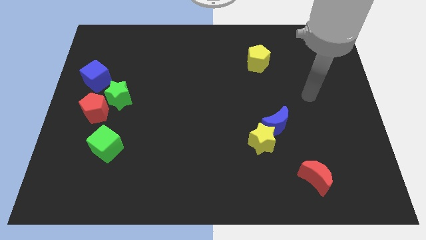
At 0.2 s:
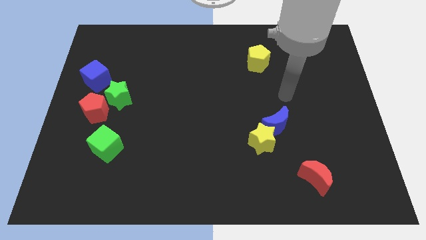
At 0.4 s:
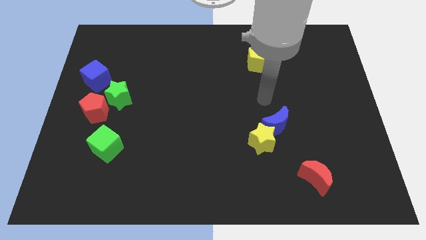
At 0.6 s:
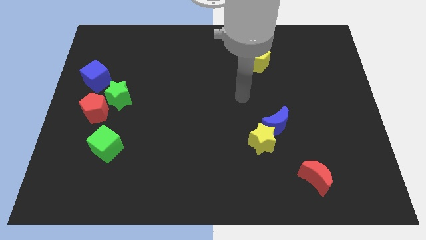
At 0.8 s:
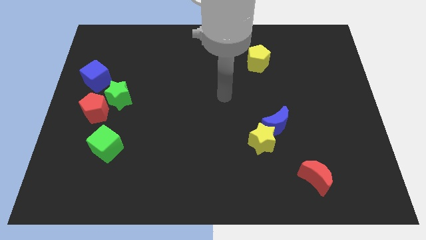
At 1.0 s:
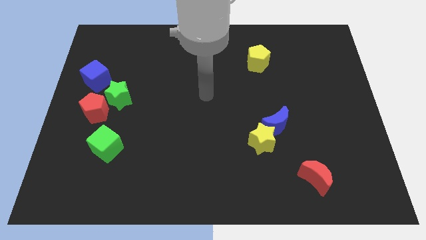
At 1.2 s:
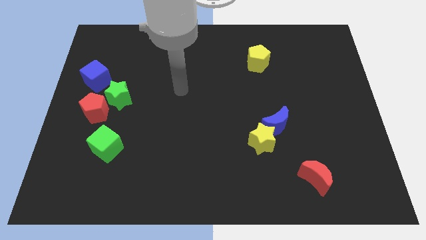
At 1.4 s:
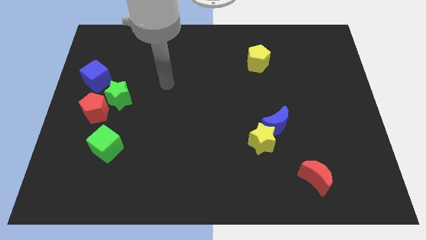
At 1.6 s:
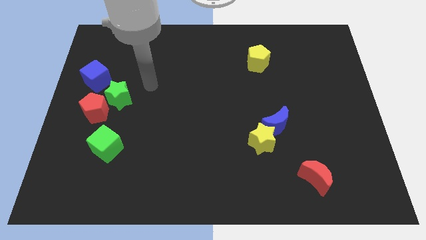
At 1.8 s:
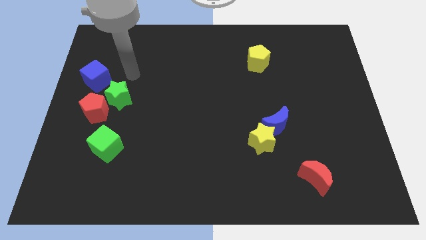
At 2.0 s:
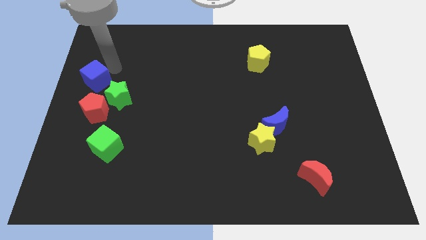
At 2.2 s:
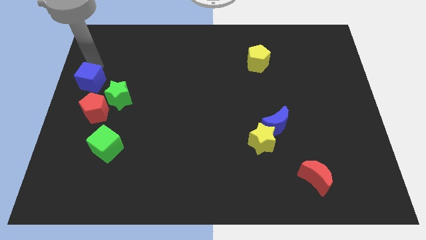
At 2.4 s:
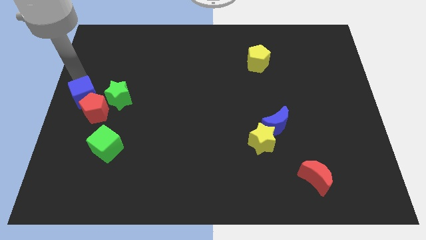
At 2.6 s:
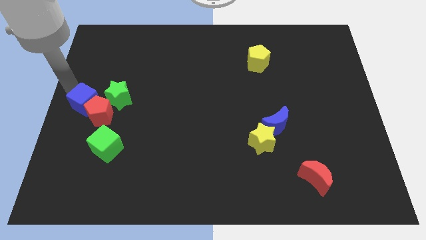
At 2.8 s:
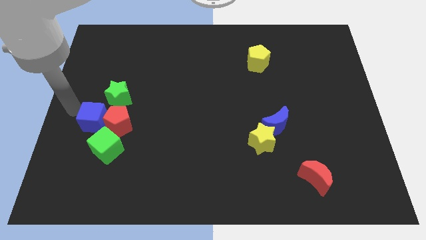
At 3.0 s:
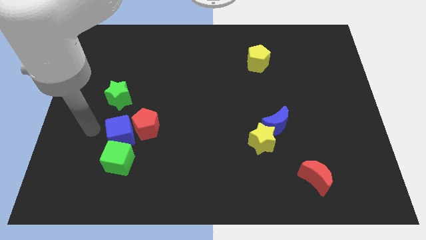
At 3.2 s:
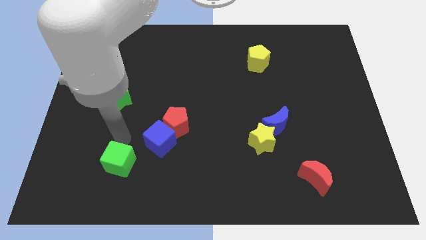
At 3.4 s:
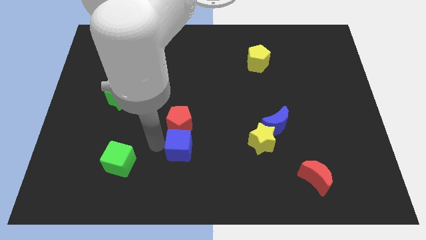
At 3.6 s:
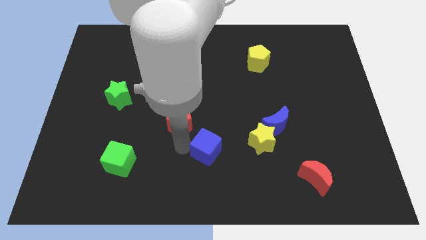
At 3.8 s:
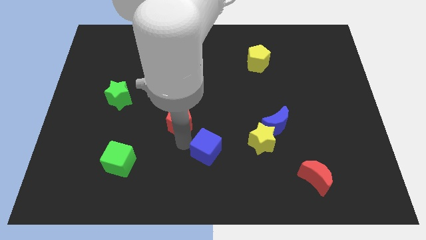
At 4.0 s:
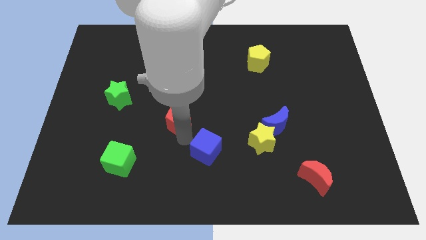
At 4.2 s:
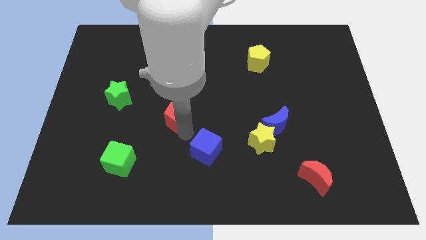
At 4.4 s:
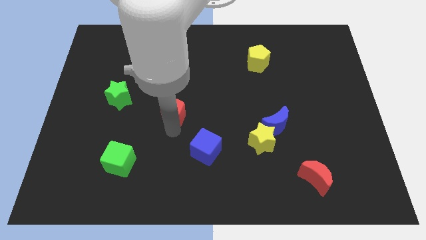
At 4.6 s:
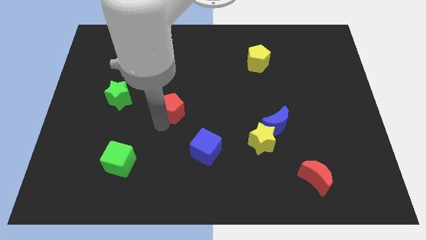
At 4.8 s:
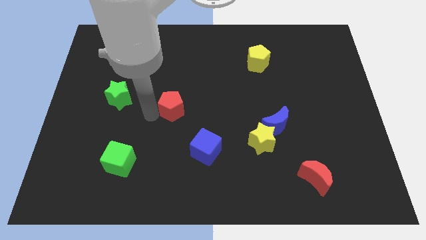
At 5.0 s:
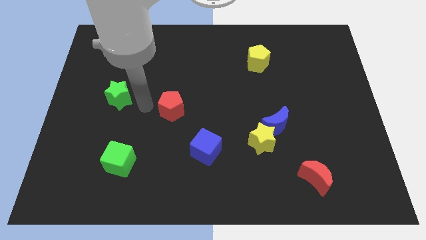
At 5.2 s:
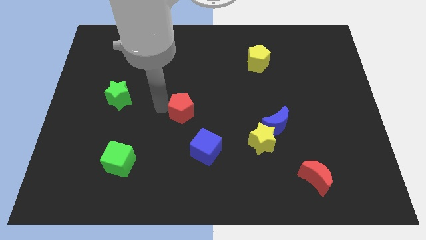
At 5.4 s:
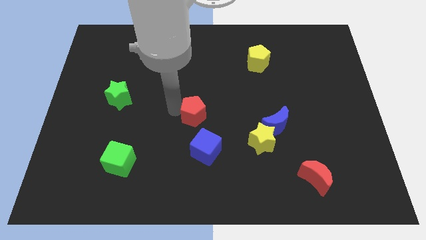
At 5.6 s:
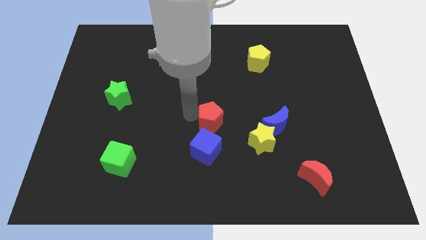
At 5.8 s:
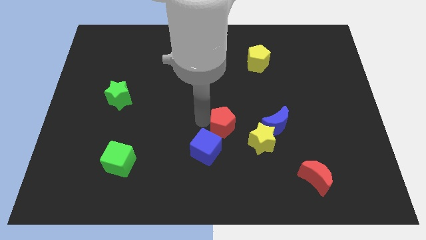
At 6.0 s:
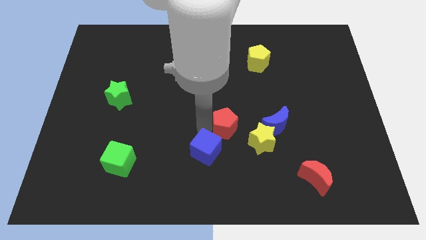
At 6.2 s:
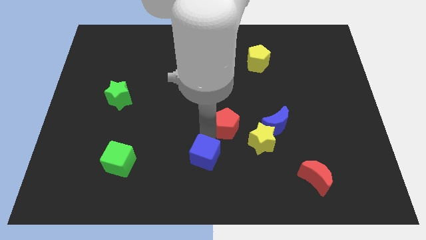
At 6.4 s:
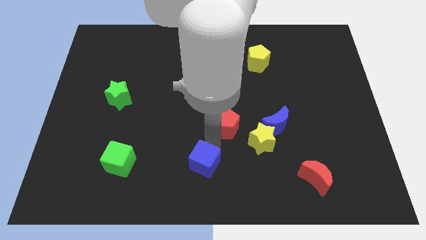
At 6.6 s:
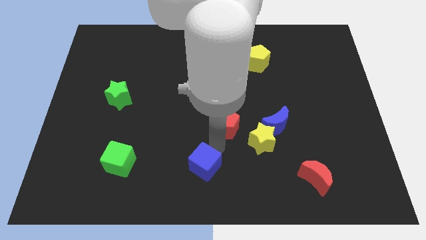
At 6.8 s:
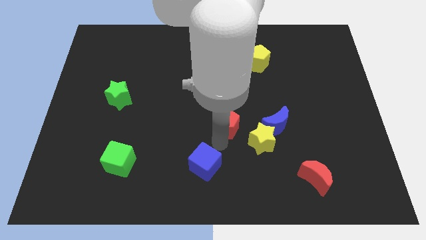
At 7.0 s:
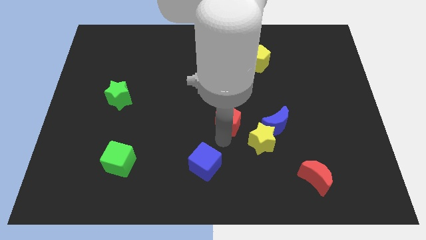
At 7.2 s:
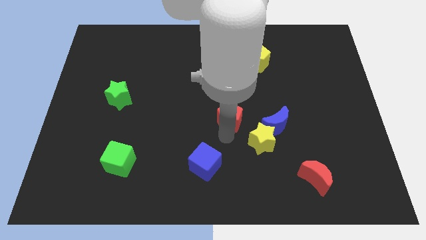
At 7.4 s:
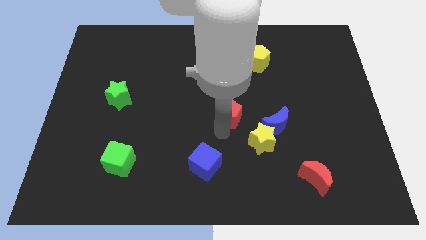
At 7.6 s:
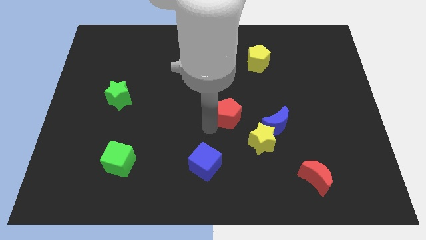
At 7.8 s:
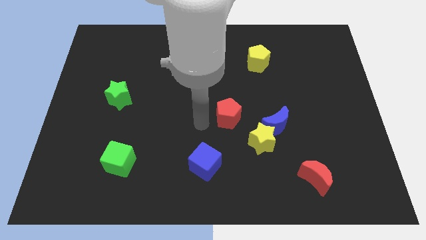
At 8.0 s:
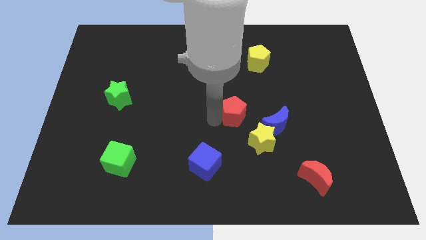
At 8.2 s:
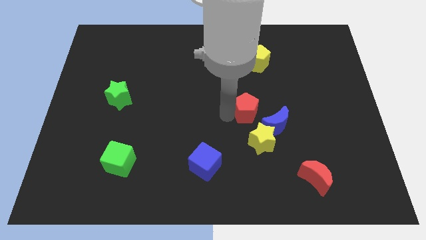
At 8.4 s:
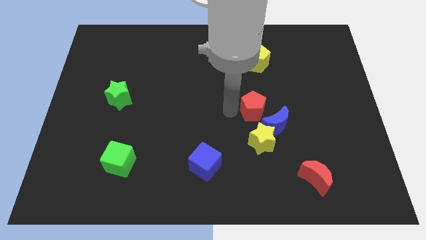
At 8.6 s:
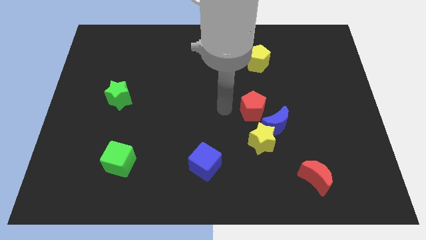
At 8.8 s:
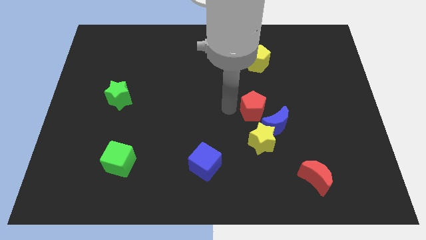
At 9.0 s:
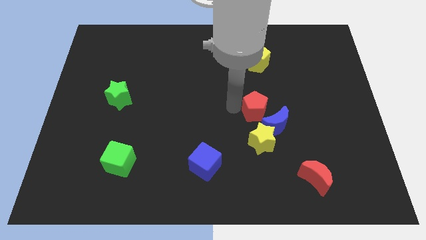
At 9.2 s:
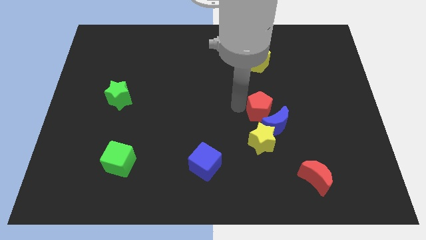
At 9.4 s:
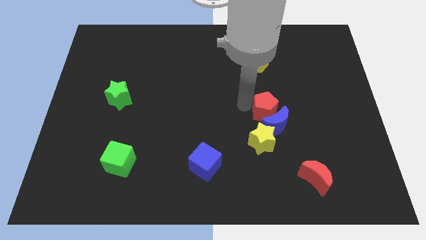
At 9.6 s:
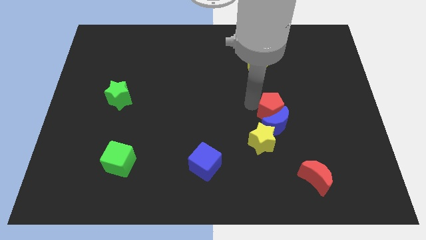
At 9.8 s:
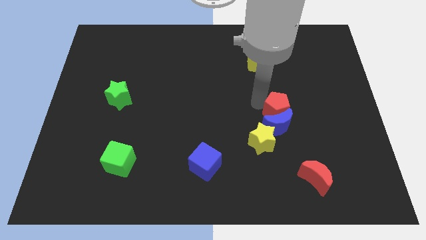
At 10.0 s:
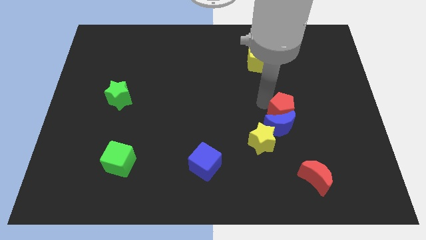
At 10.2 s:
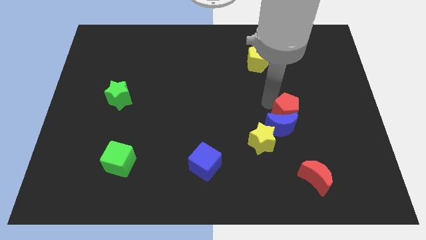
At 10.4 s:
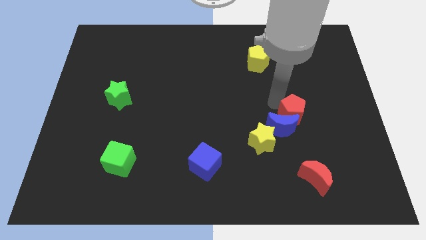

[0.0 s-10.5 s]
slide the red pentagon to the right side of the blue moon

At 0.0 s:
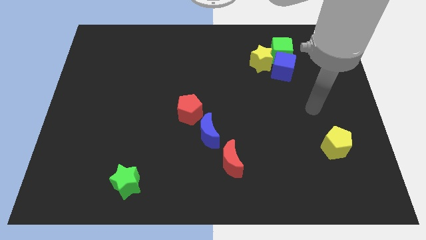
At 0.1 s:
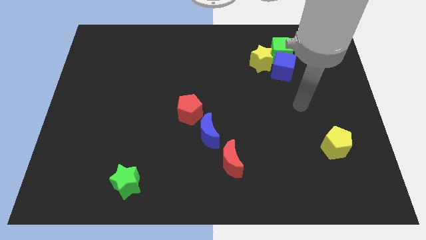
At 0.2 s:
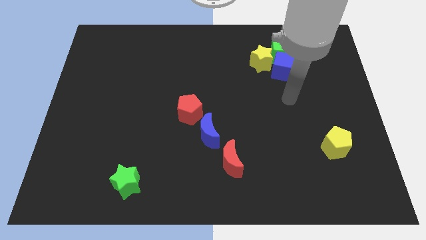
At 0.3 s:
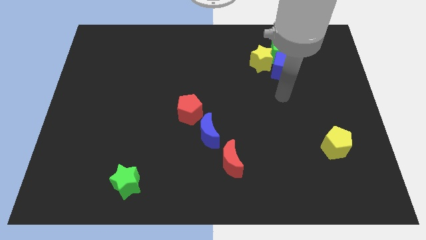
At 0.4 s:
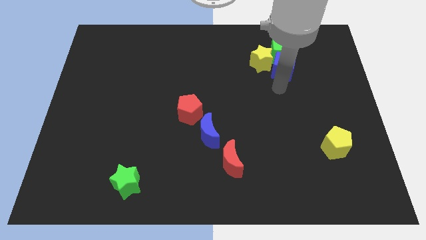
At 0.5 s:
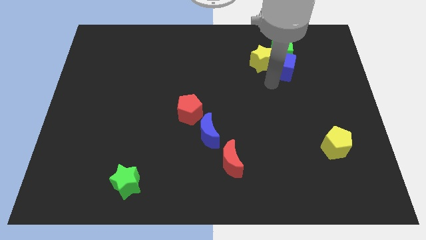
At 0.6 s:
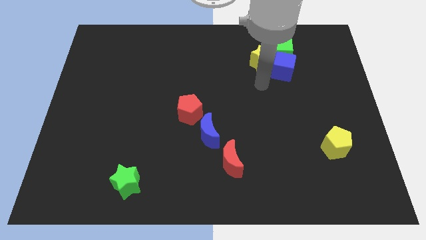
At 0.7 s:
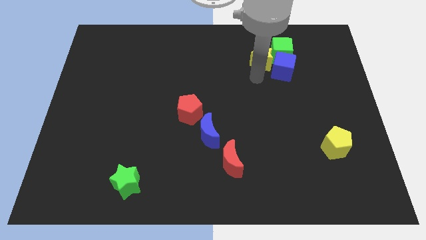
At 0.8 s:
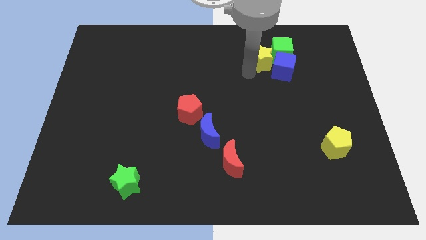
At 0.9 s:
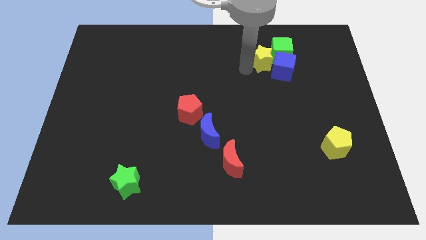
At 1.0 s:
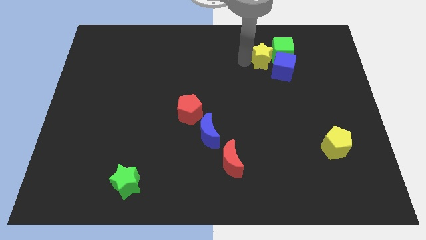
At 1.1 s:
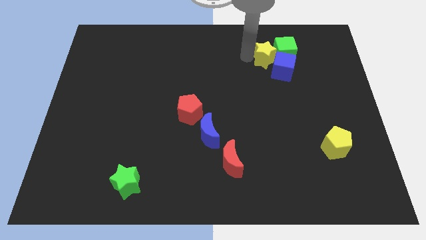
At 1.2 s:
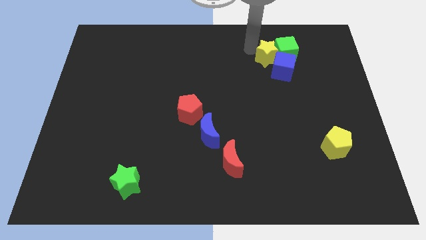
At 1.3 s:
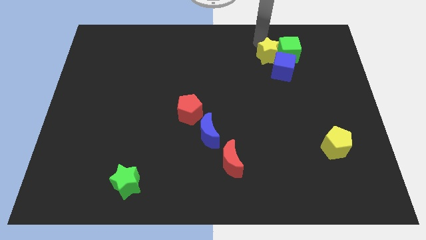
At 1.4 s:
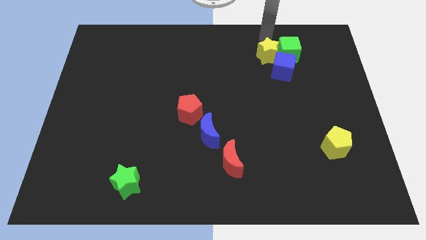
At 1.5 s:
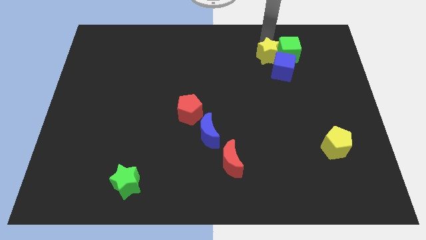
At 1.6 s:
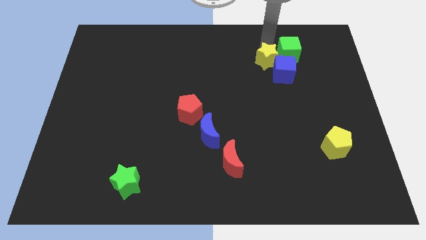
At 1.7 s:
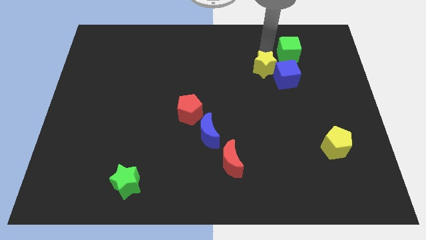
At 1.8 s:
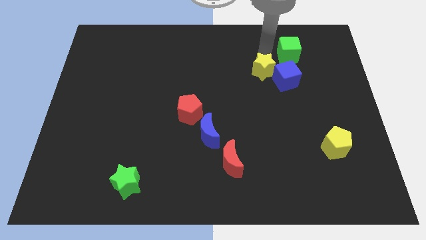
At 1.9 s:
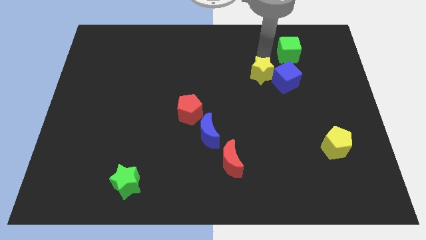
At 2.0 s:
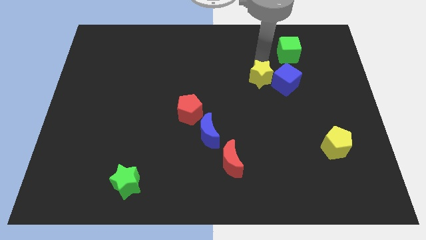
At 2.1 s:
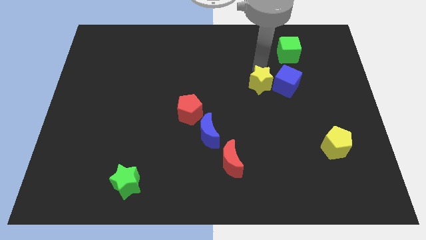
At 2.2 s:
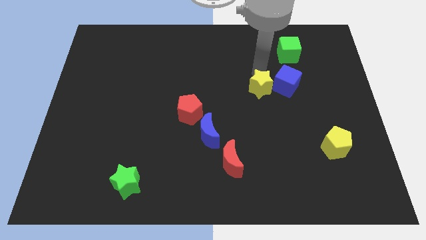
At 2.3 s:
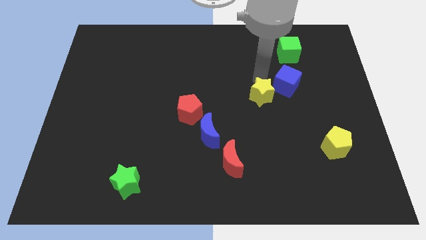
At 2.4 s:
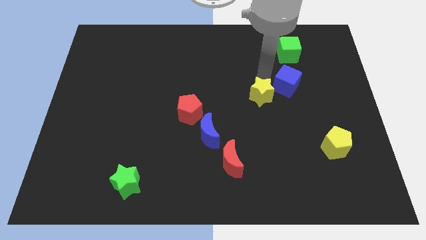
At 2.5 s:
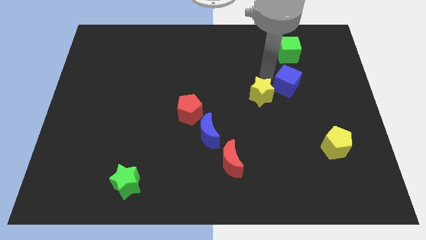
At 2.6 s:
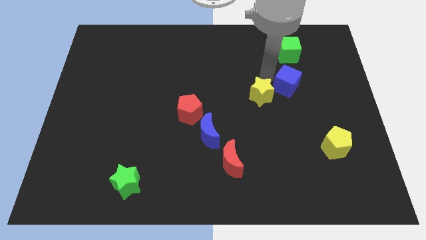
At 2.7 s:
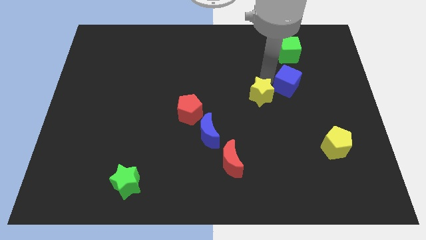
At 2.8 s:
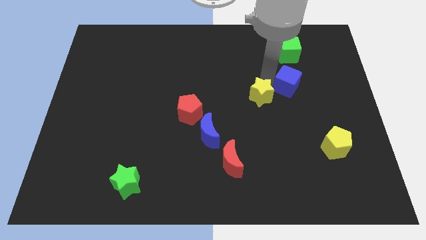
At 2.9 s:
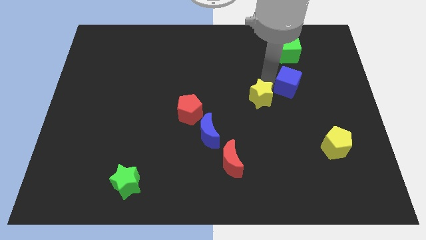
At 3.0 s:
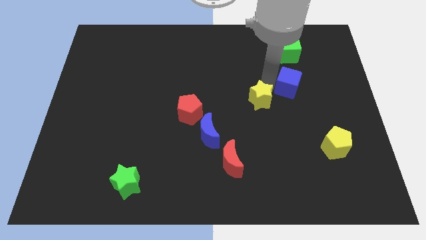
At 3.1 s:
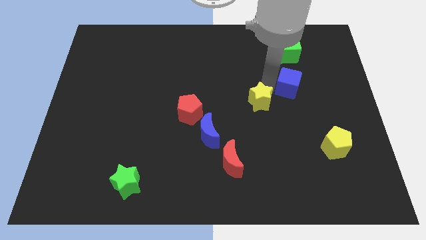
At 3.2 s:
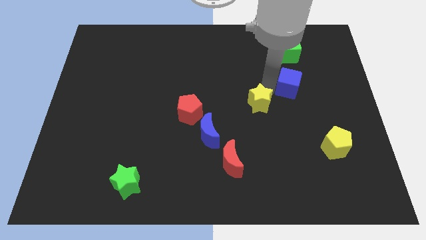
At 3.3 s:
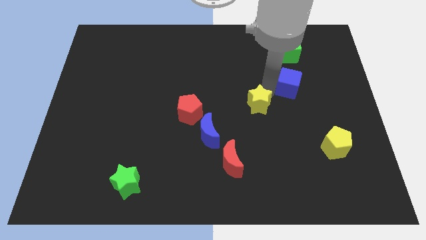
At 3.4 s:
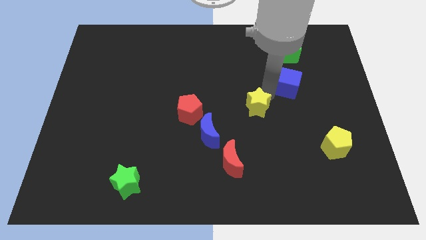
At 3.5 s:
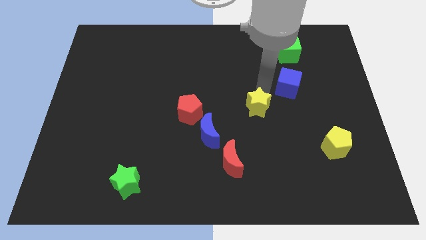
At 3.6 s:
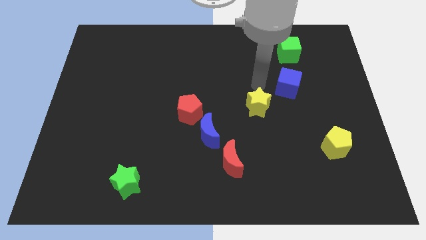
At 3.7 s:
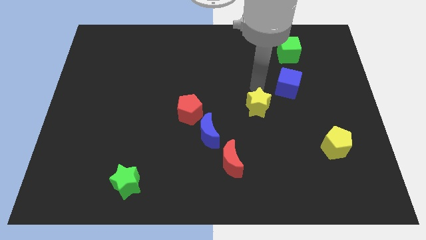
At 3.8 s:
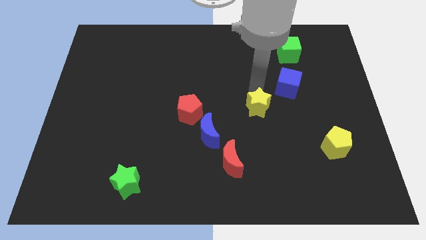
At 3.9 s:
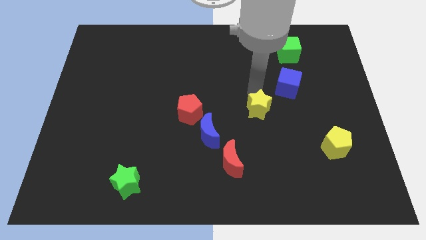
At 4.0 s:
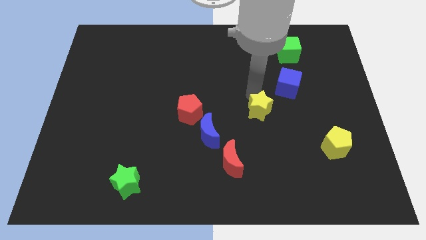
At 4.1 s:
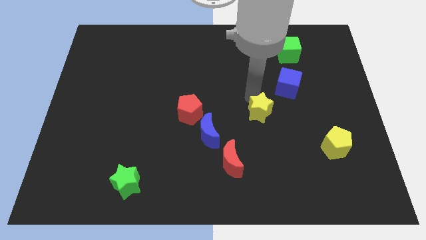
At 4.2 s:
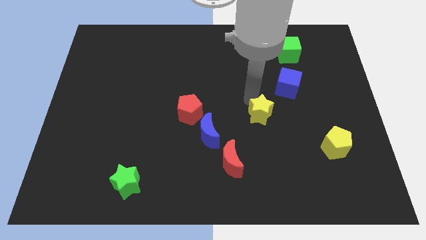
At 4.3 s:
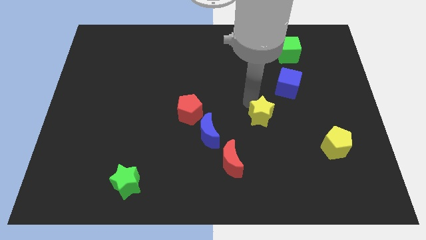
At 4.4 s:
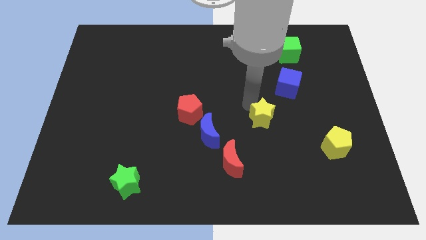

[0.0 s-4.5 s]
push the yellow star to the right of the blue moon
